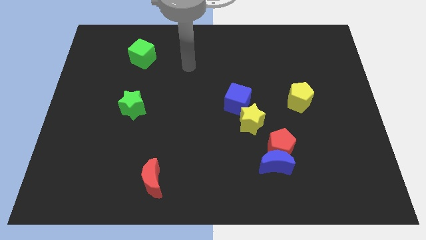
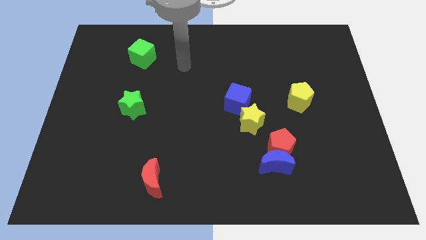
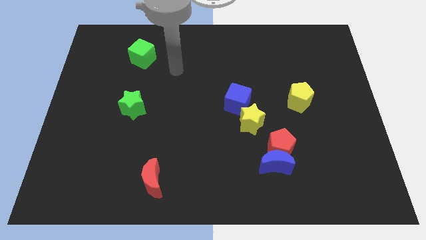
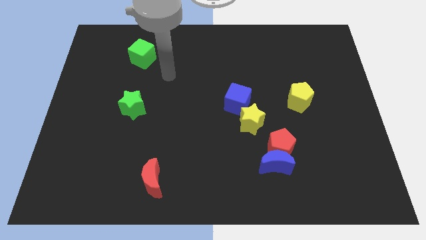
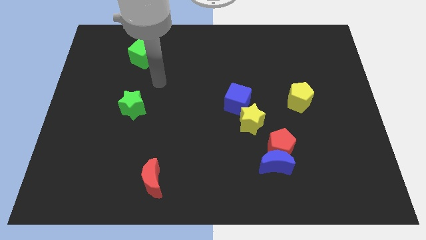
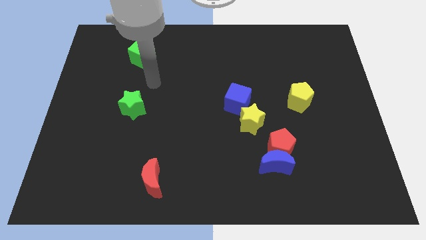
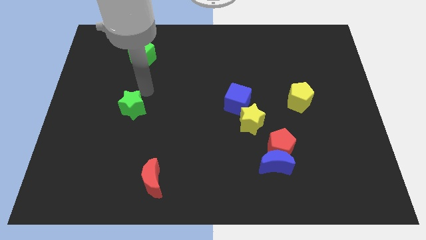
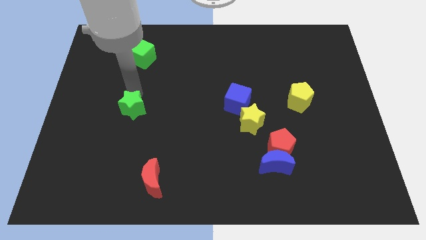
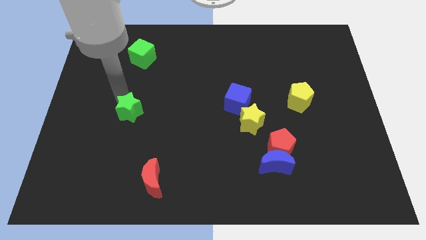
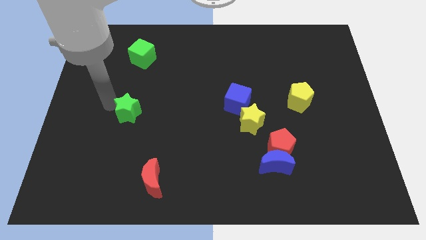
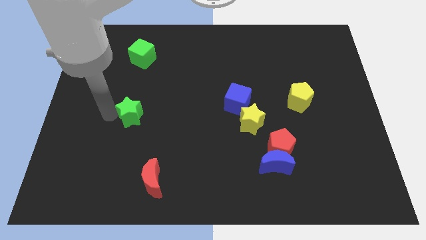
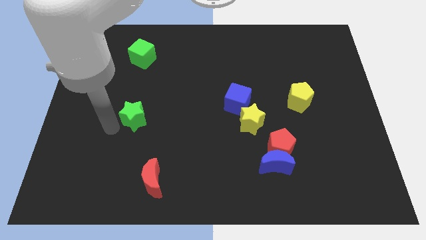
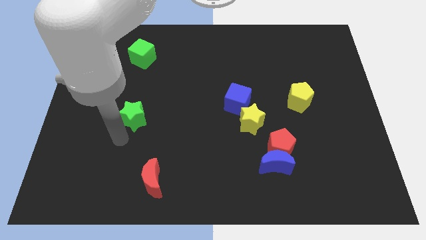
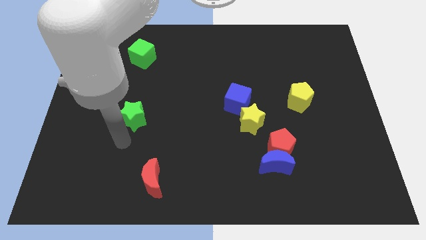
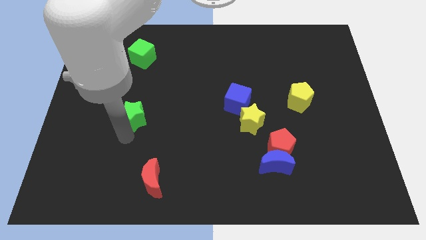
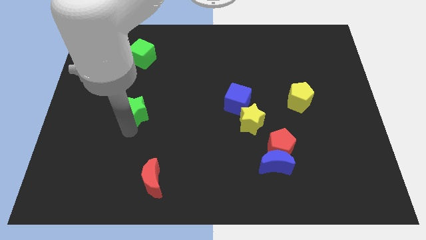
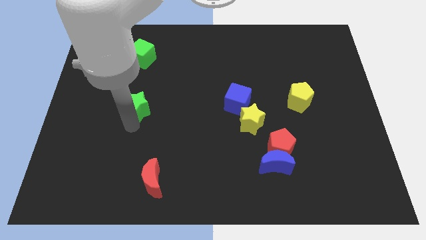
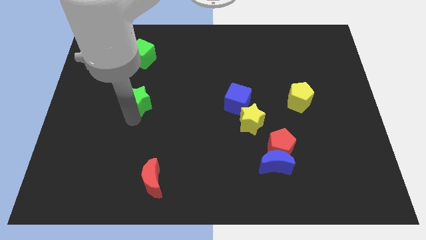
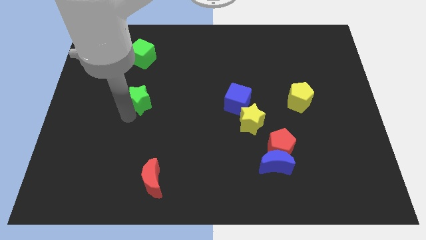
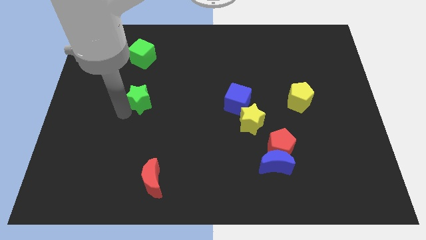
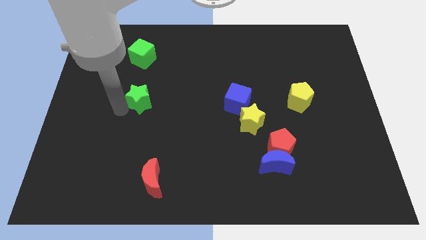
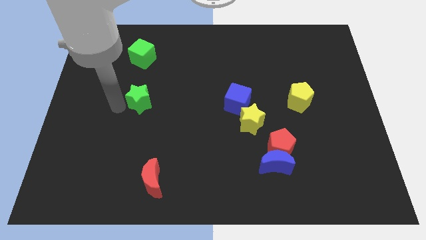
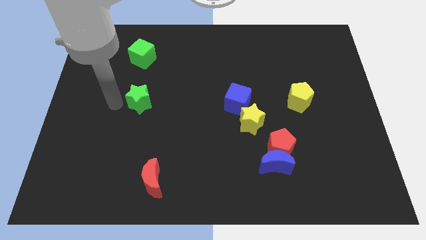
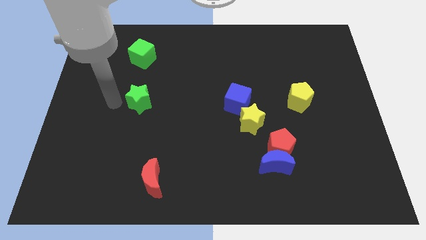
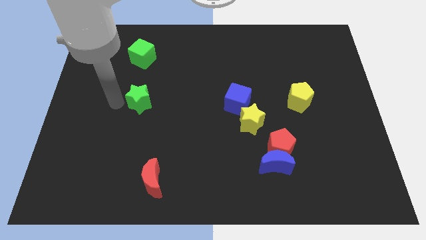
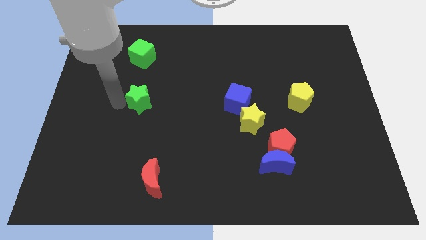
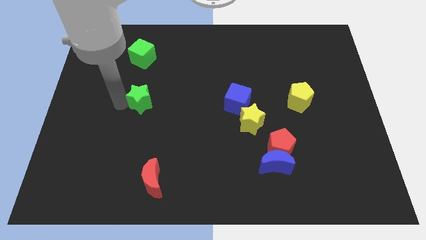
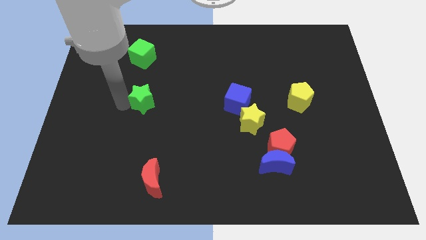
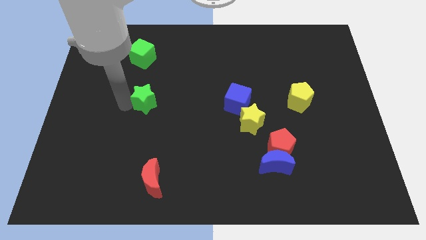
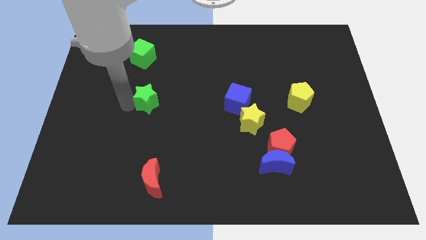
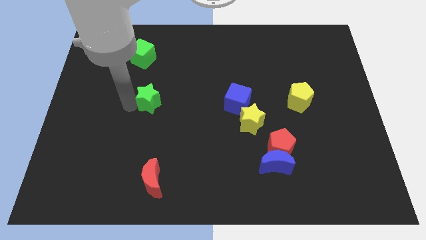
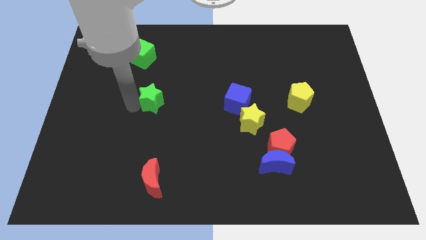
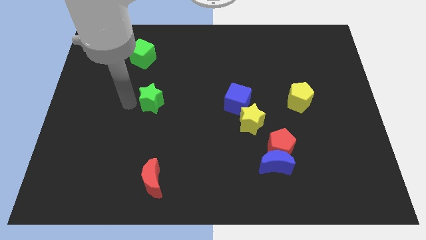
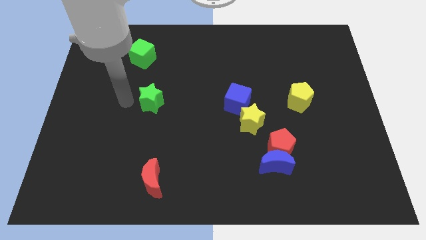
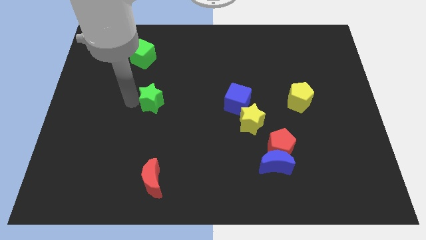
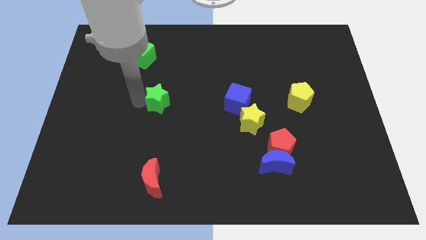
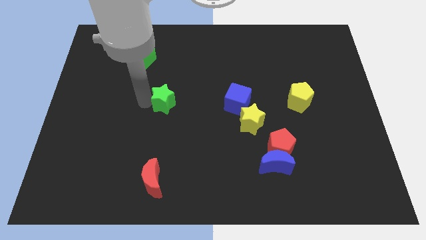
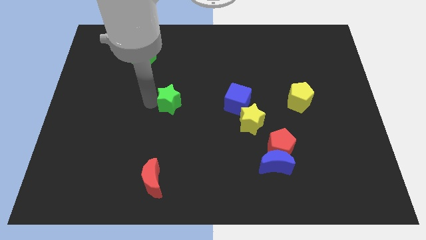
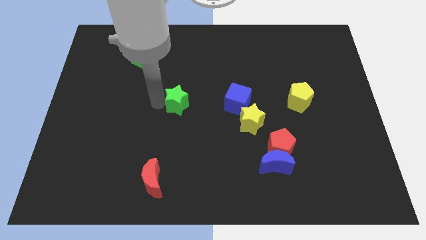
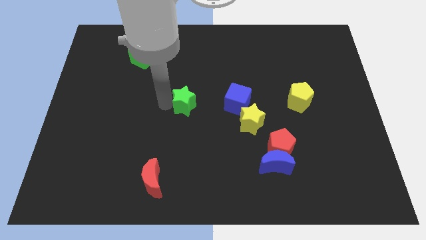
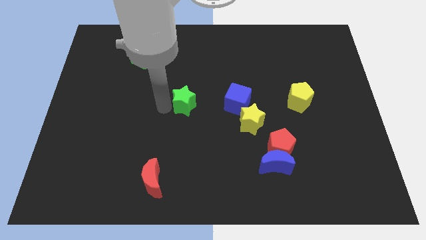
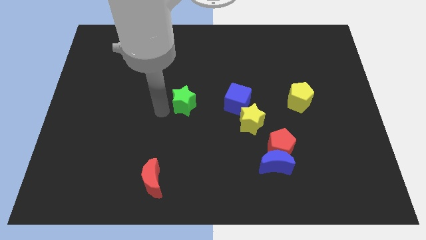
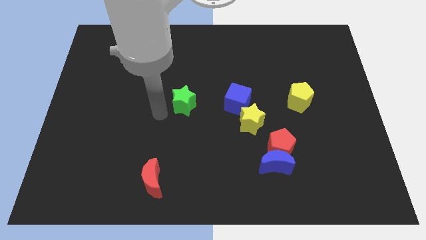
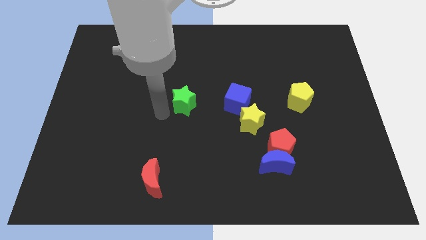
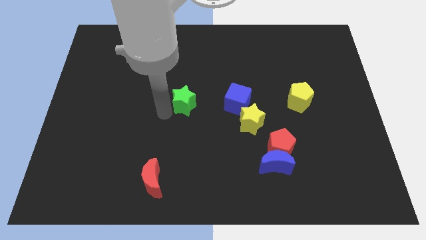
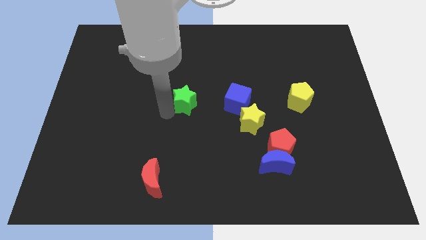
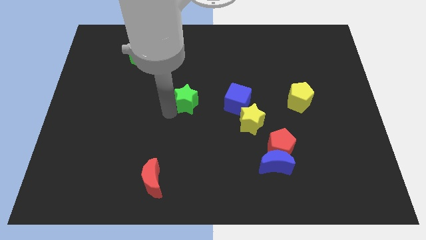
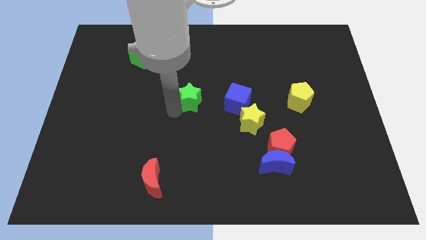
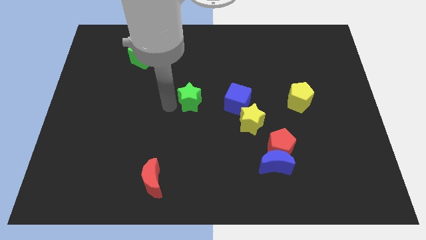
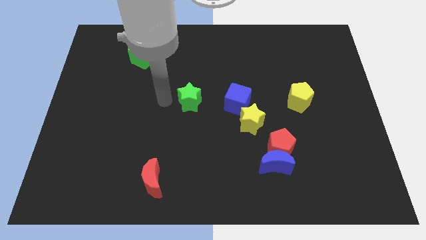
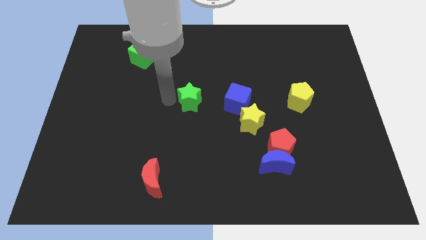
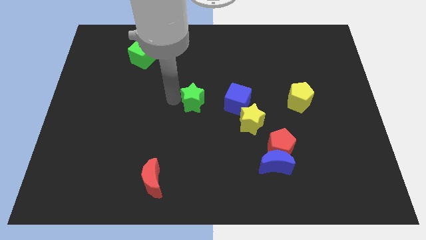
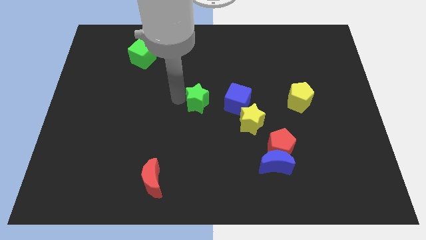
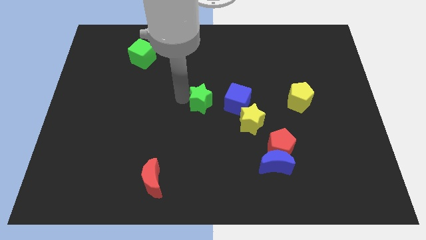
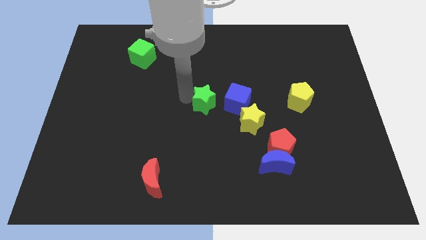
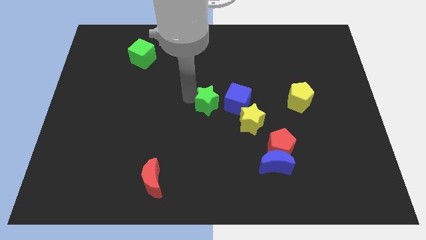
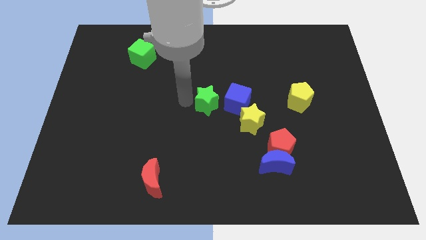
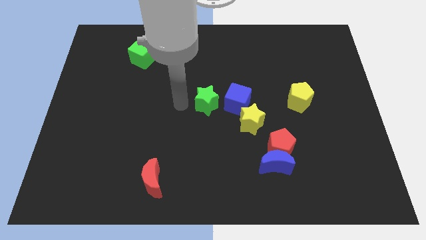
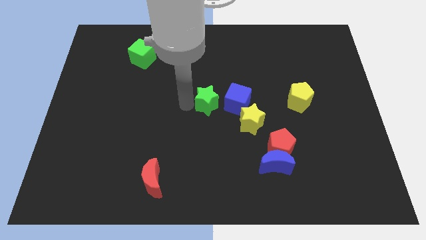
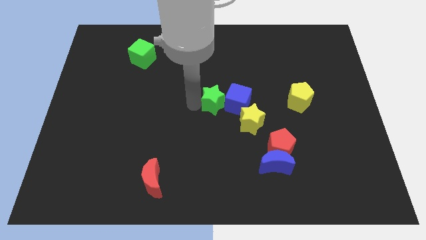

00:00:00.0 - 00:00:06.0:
put the green star close to the blue cube
